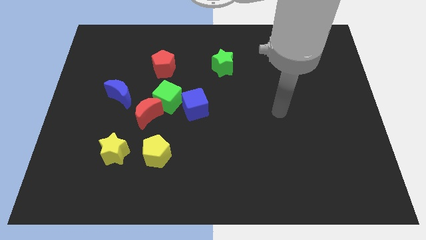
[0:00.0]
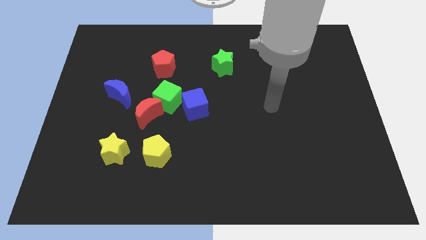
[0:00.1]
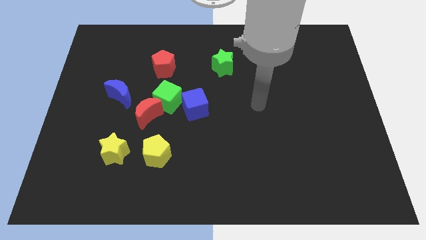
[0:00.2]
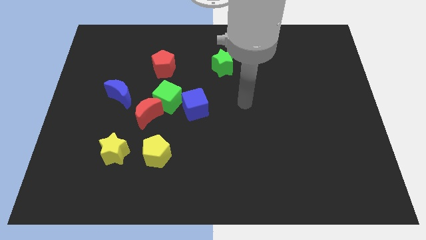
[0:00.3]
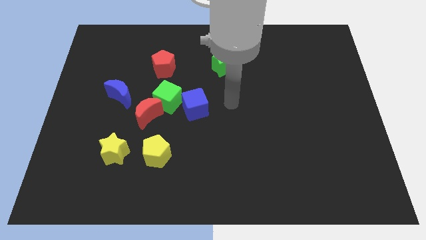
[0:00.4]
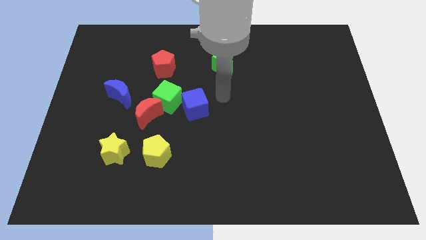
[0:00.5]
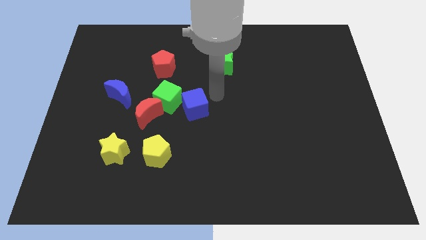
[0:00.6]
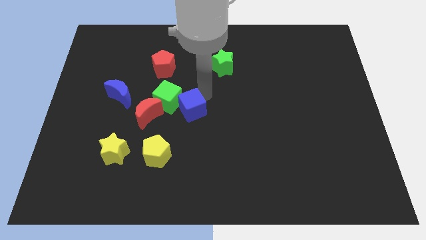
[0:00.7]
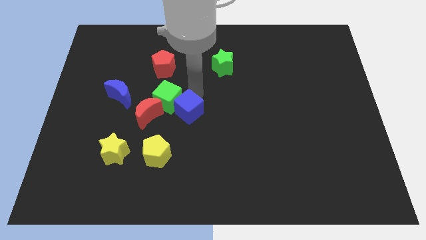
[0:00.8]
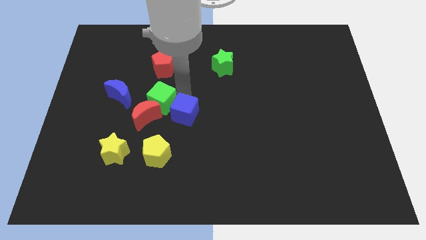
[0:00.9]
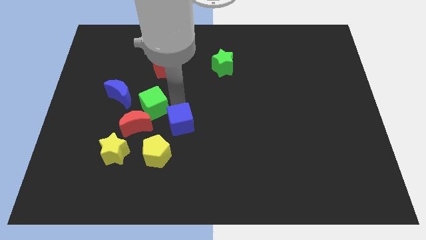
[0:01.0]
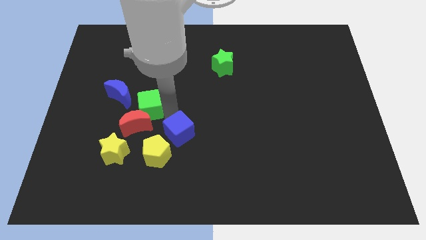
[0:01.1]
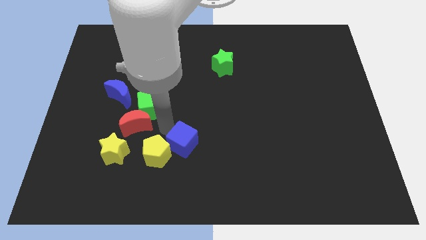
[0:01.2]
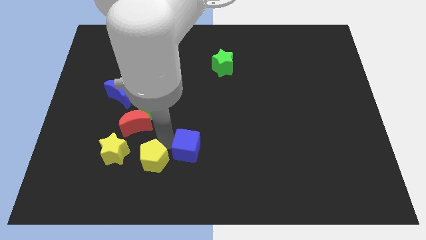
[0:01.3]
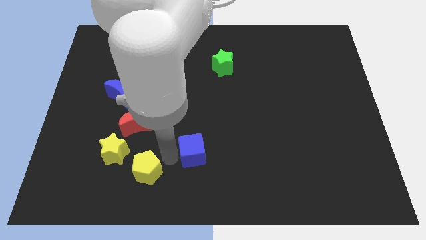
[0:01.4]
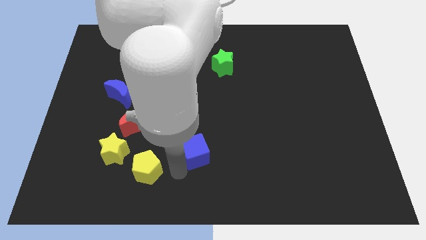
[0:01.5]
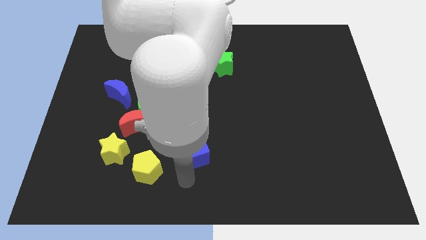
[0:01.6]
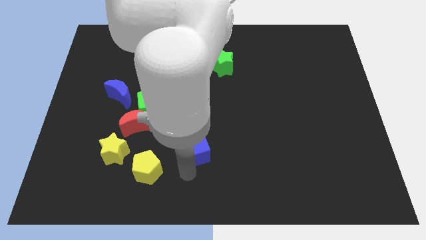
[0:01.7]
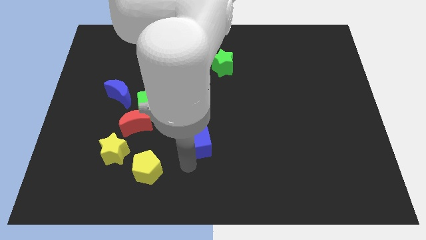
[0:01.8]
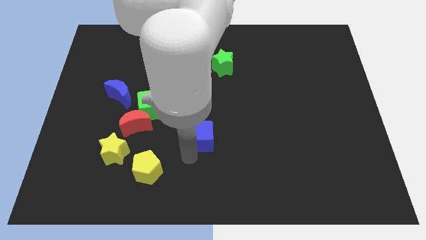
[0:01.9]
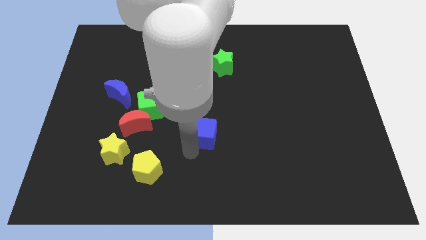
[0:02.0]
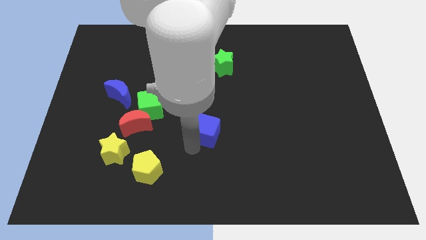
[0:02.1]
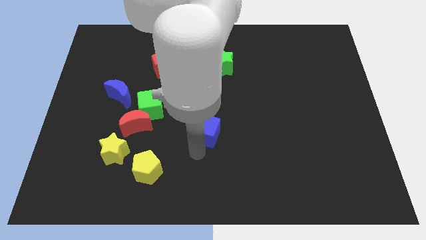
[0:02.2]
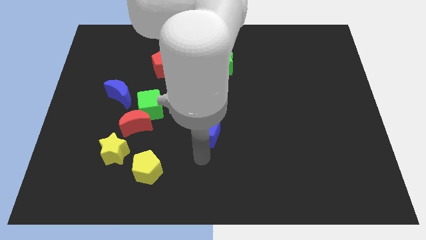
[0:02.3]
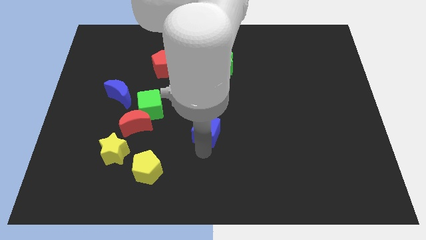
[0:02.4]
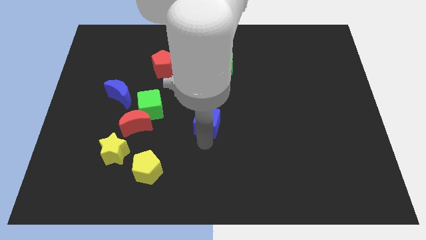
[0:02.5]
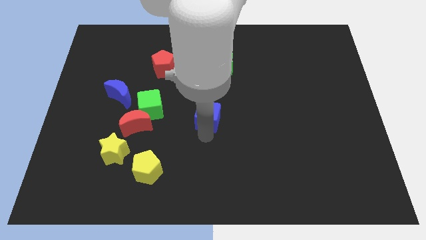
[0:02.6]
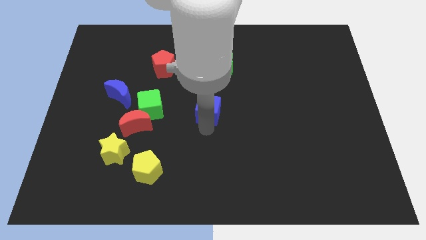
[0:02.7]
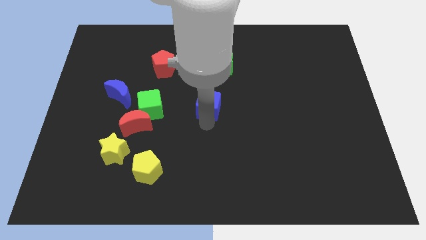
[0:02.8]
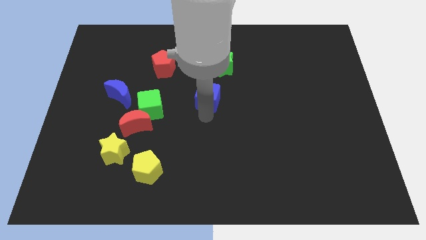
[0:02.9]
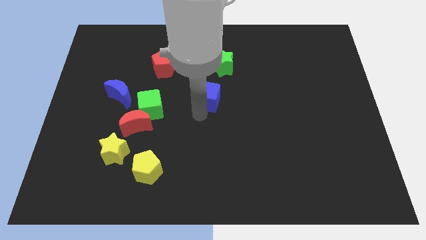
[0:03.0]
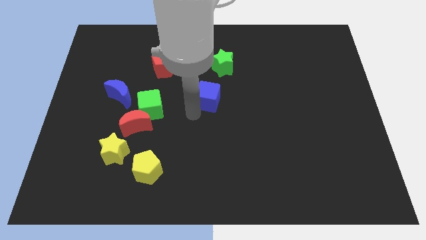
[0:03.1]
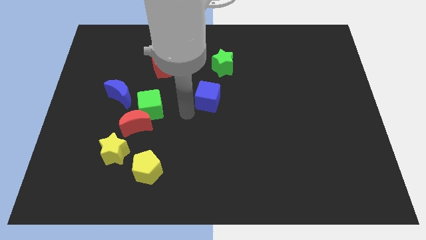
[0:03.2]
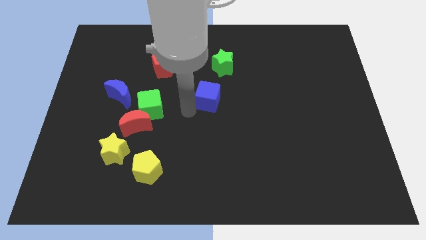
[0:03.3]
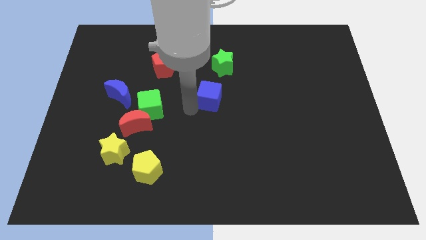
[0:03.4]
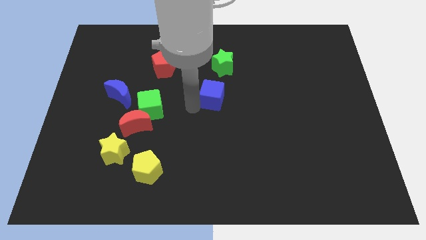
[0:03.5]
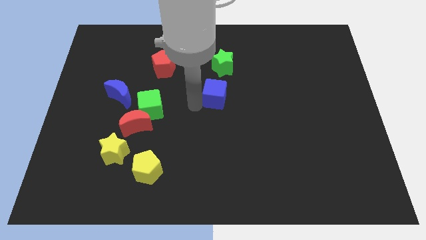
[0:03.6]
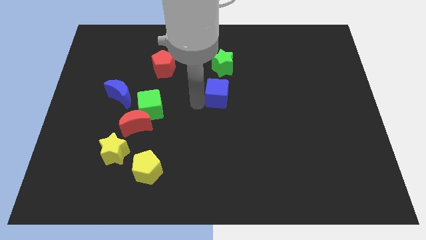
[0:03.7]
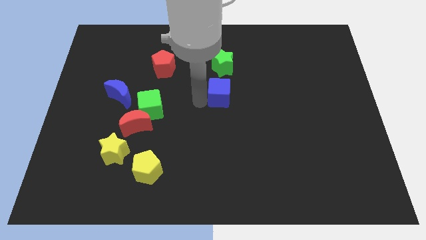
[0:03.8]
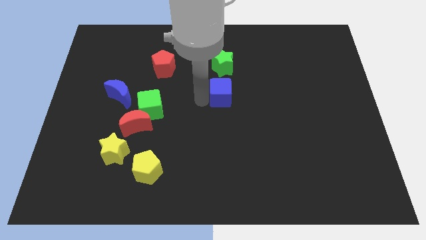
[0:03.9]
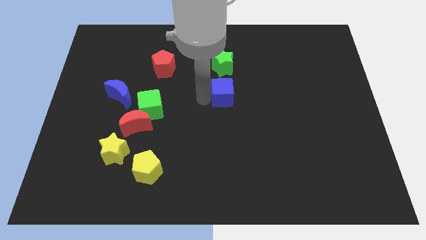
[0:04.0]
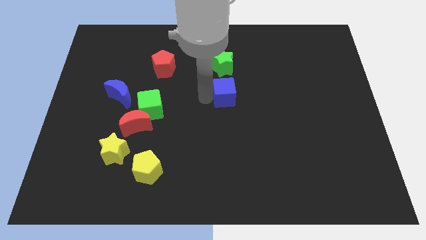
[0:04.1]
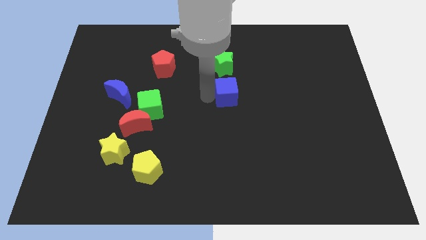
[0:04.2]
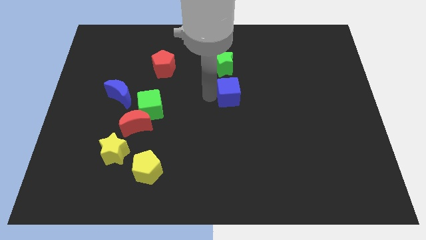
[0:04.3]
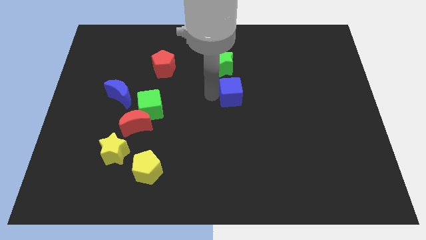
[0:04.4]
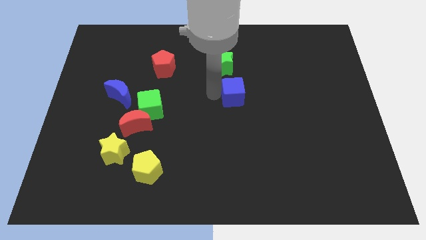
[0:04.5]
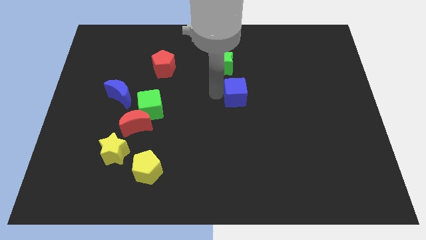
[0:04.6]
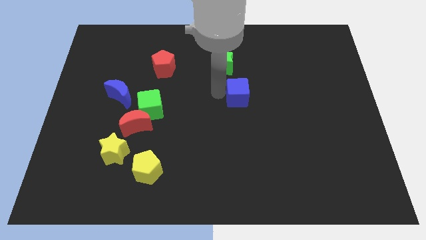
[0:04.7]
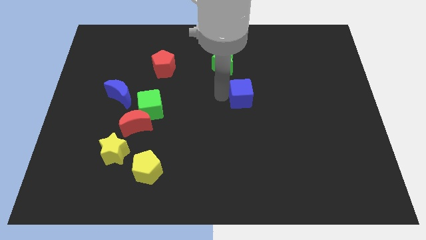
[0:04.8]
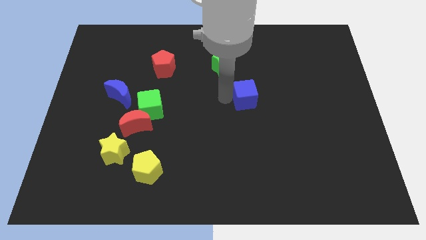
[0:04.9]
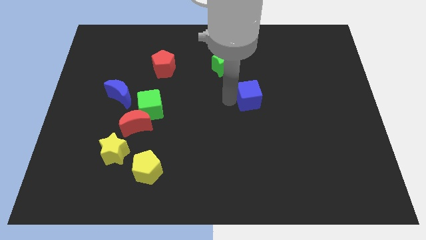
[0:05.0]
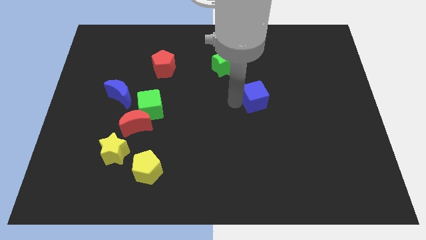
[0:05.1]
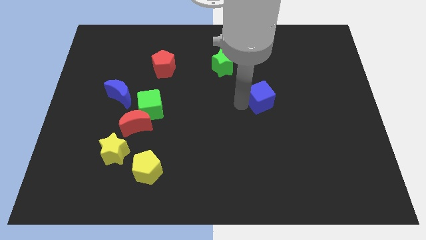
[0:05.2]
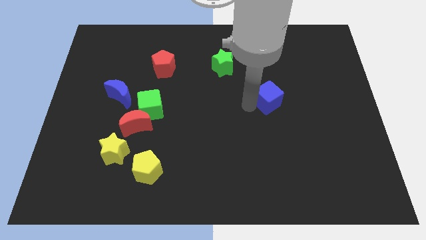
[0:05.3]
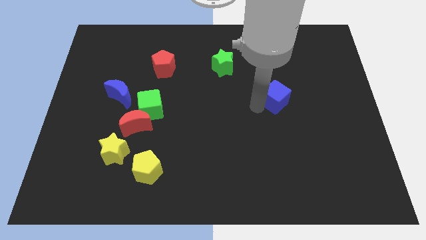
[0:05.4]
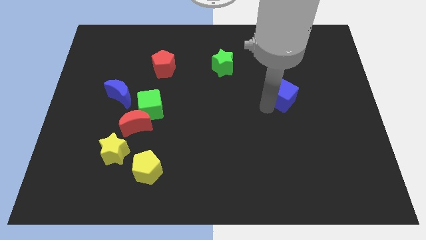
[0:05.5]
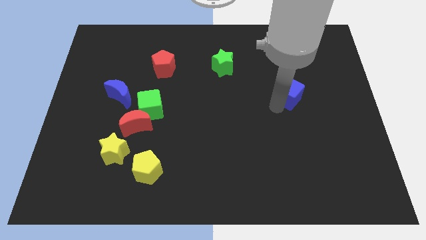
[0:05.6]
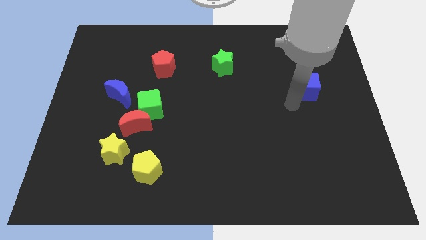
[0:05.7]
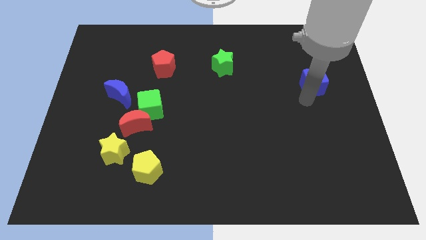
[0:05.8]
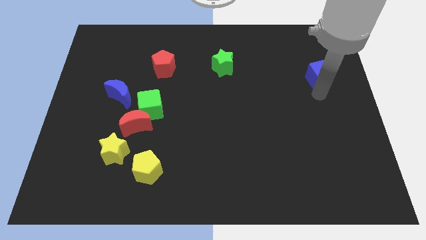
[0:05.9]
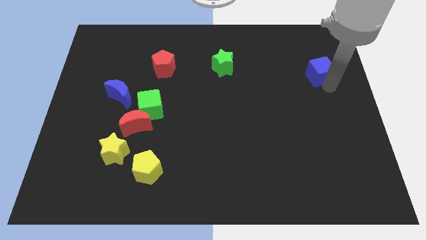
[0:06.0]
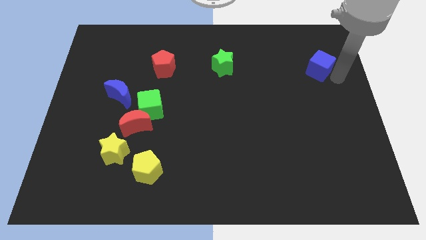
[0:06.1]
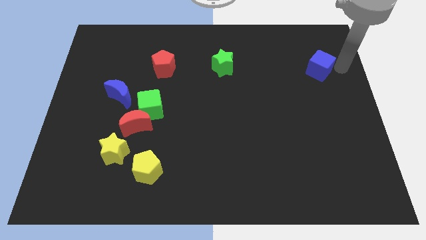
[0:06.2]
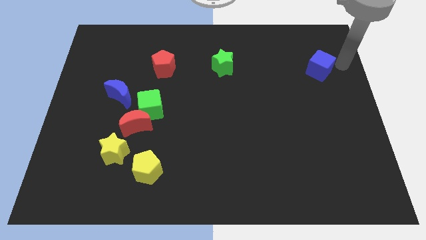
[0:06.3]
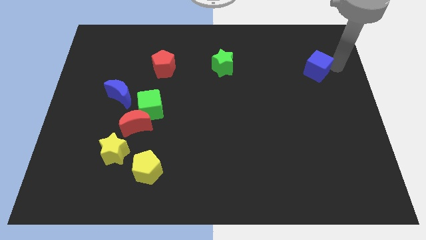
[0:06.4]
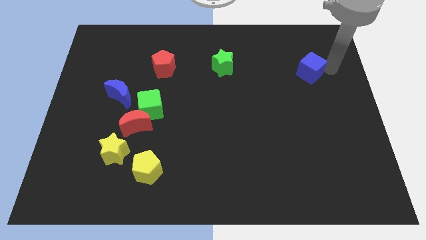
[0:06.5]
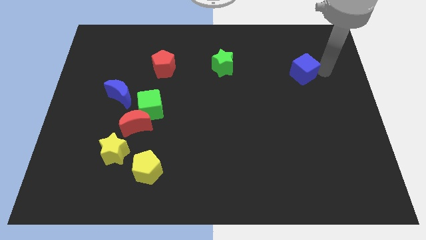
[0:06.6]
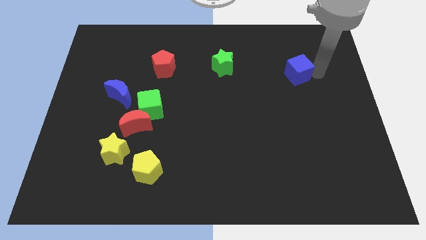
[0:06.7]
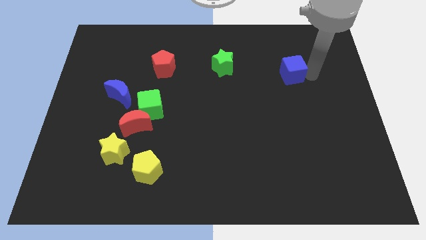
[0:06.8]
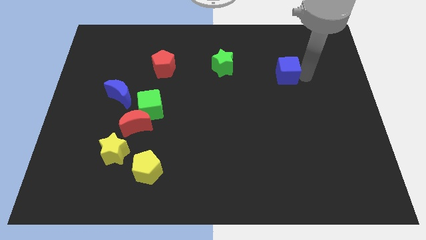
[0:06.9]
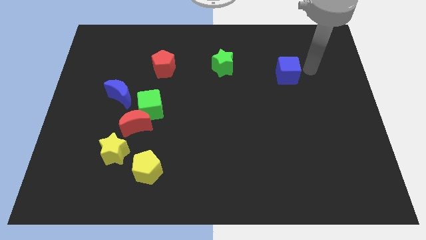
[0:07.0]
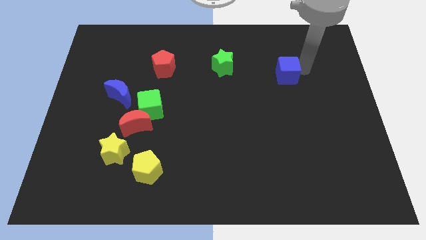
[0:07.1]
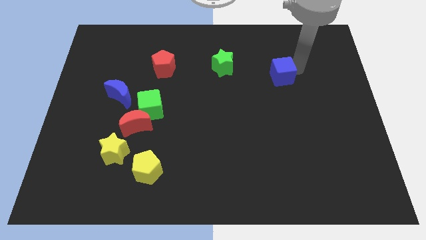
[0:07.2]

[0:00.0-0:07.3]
put the blue cube right of the green star

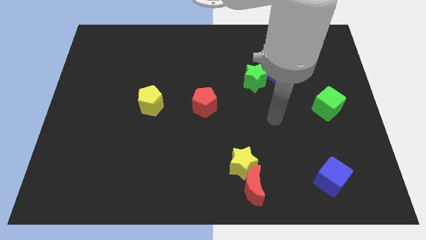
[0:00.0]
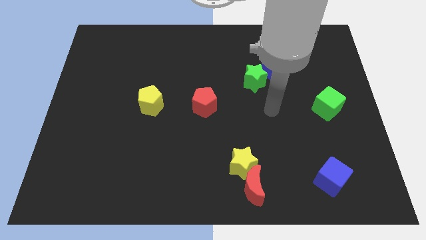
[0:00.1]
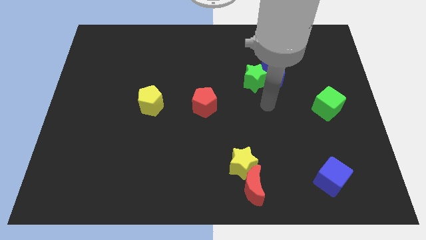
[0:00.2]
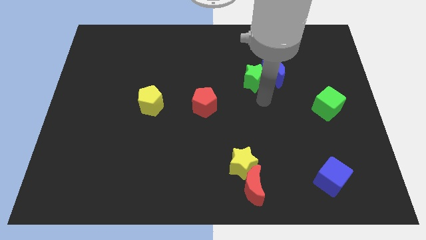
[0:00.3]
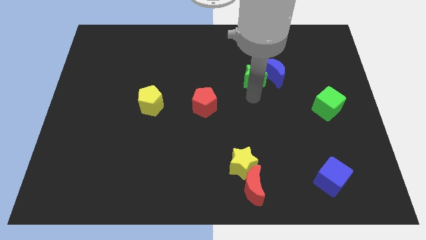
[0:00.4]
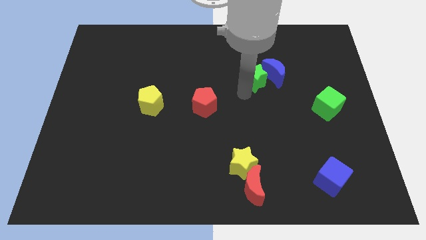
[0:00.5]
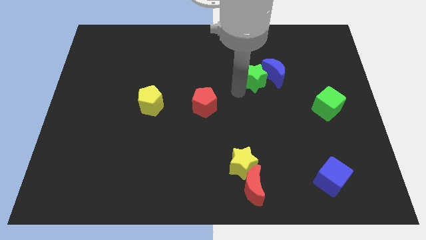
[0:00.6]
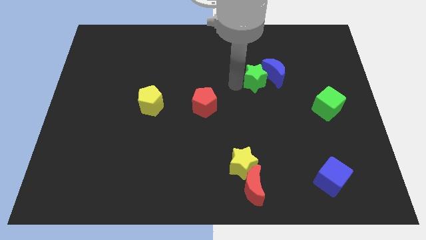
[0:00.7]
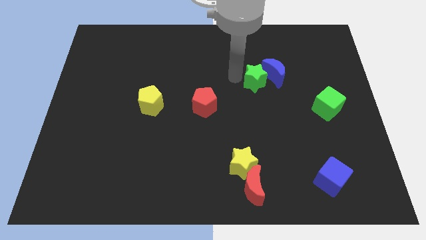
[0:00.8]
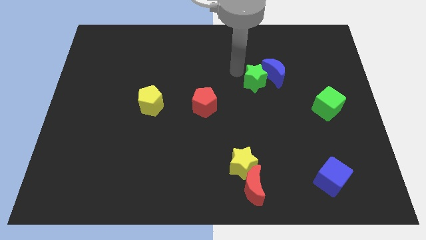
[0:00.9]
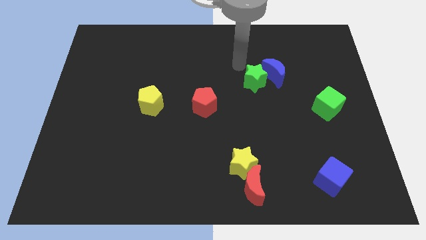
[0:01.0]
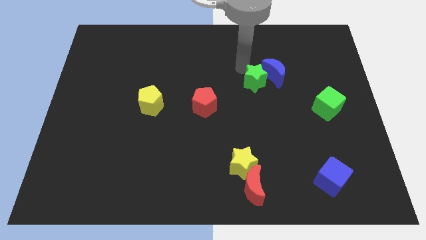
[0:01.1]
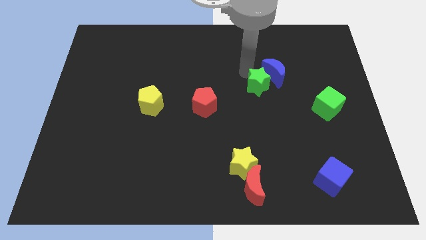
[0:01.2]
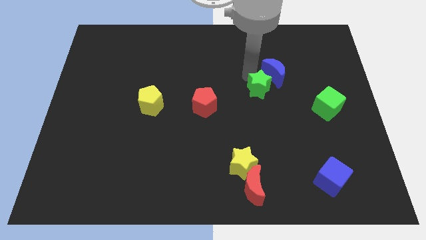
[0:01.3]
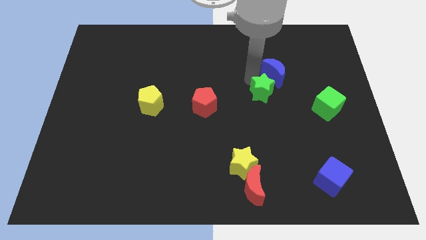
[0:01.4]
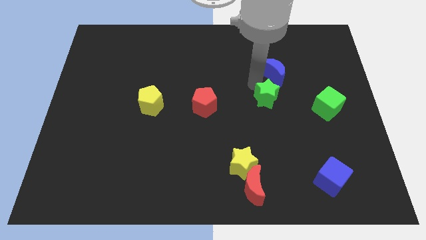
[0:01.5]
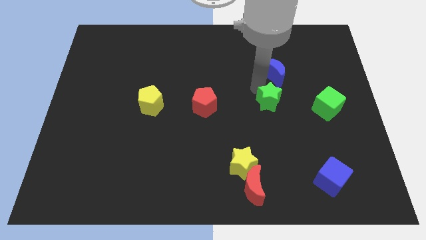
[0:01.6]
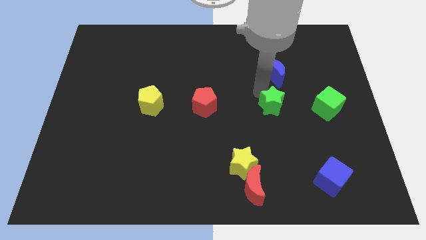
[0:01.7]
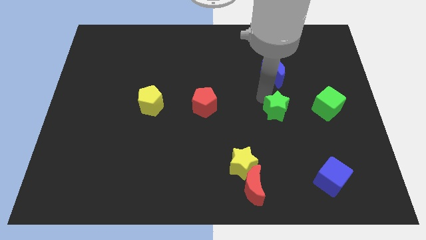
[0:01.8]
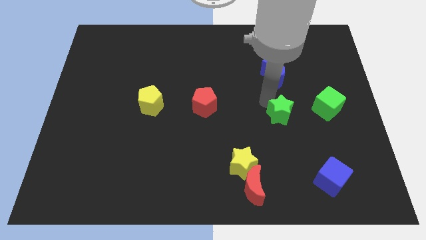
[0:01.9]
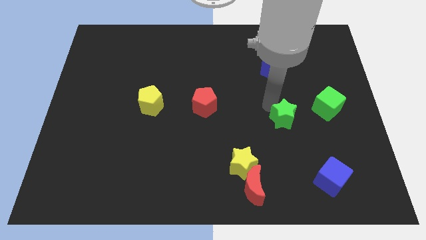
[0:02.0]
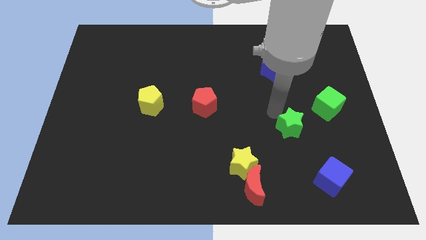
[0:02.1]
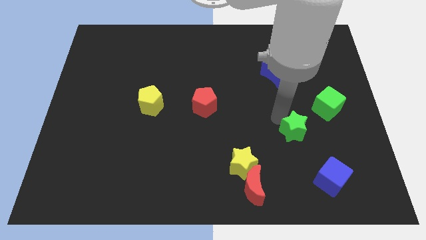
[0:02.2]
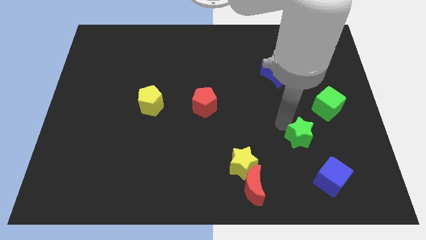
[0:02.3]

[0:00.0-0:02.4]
push the green star above the blue cube
